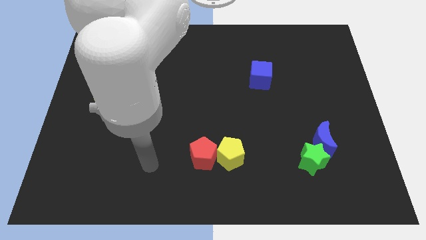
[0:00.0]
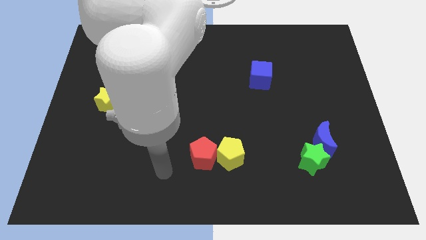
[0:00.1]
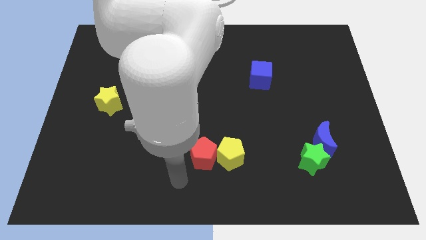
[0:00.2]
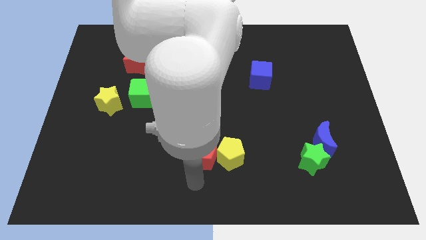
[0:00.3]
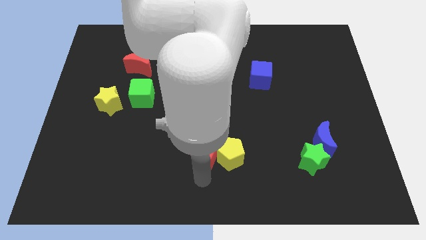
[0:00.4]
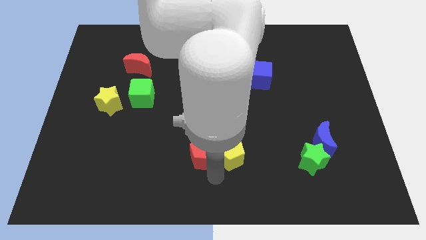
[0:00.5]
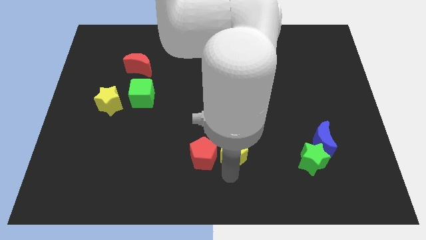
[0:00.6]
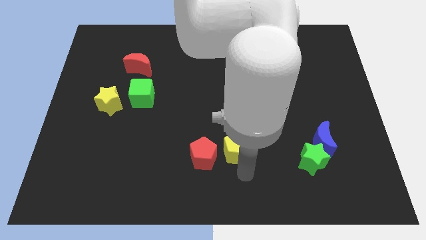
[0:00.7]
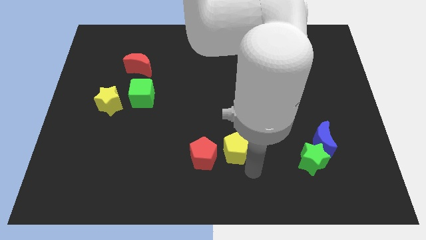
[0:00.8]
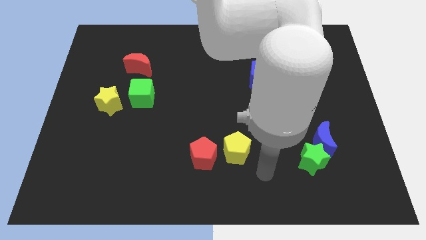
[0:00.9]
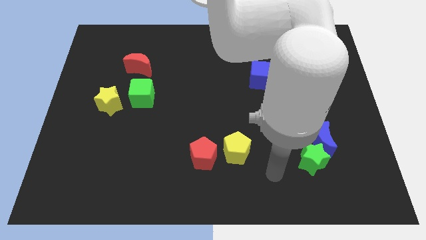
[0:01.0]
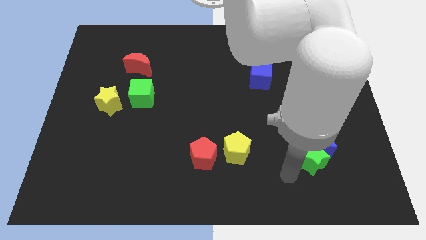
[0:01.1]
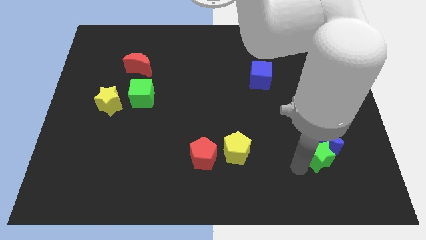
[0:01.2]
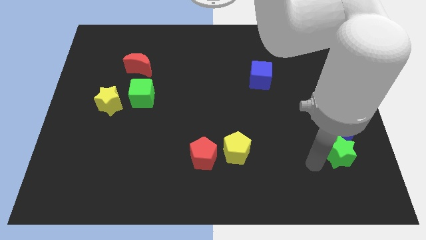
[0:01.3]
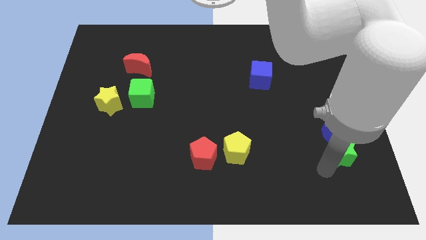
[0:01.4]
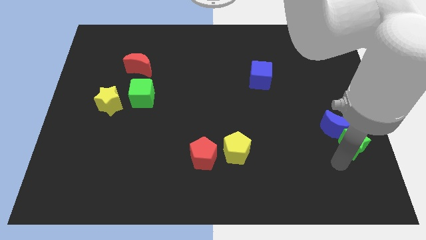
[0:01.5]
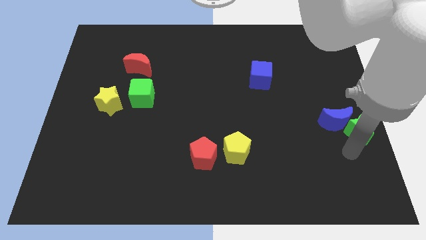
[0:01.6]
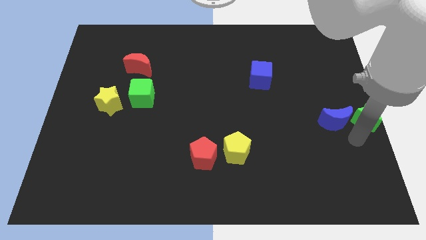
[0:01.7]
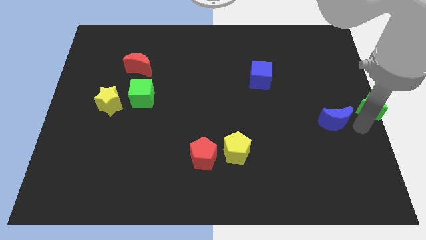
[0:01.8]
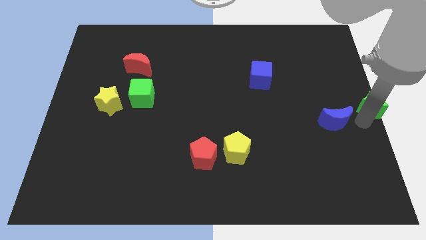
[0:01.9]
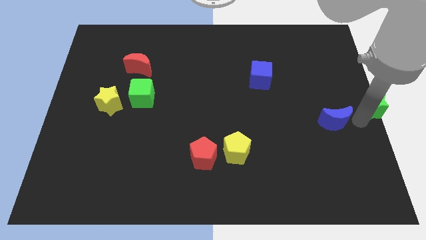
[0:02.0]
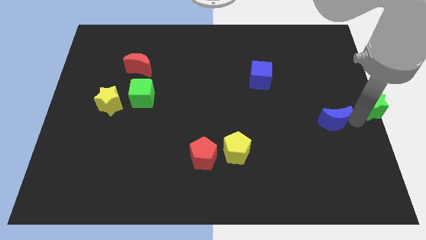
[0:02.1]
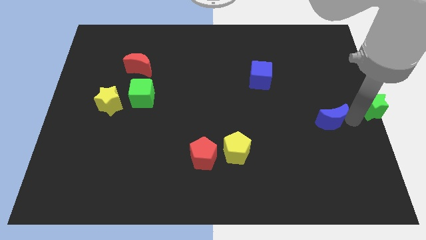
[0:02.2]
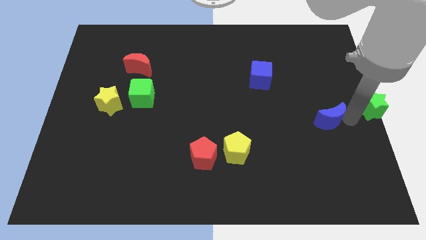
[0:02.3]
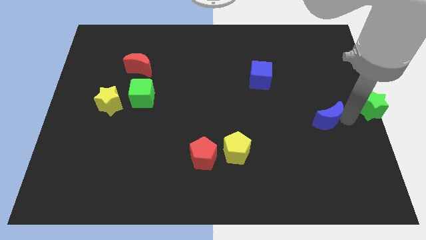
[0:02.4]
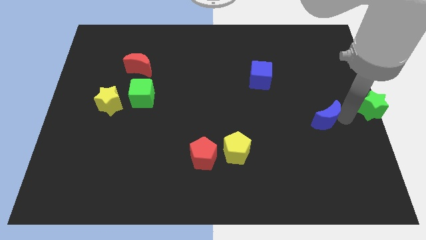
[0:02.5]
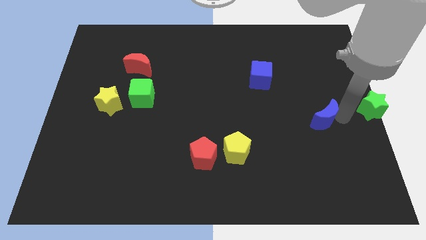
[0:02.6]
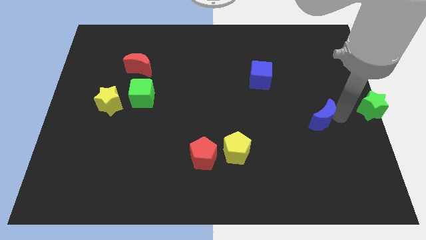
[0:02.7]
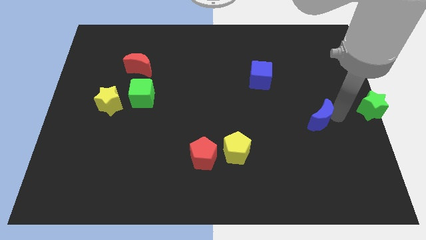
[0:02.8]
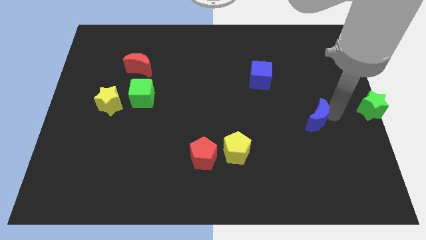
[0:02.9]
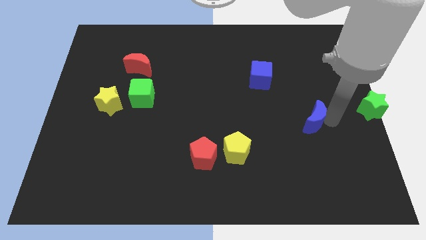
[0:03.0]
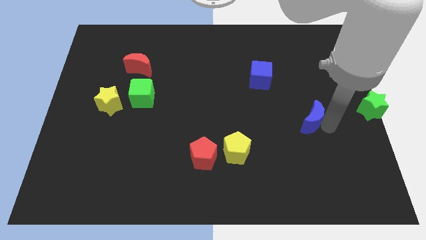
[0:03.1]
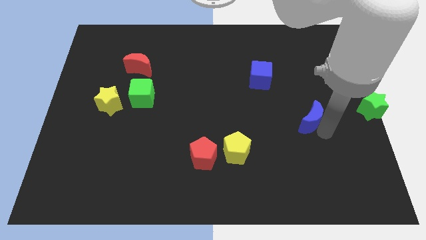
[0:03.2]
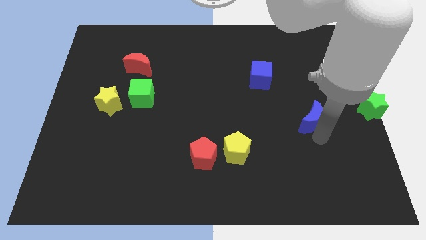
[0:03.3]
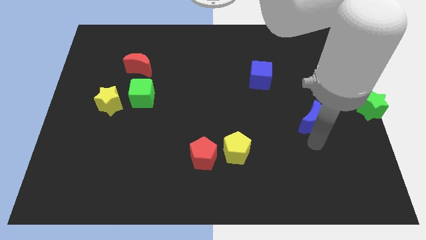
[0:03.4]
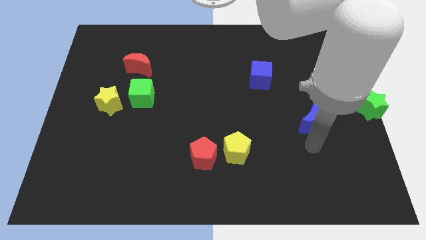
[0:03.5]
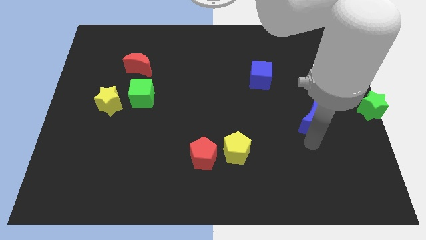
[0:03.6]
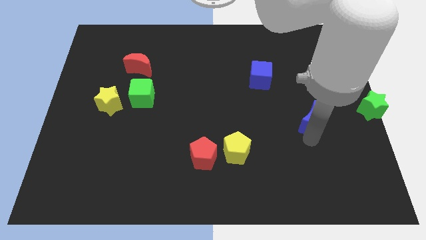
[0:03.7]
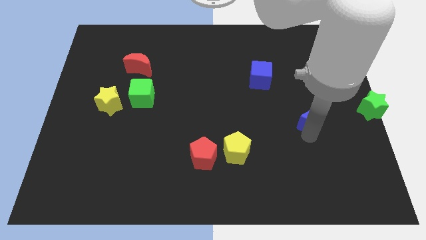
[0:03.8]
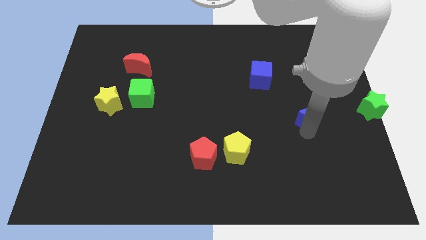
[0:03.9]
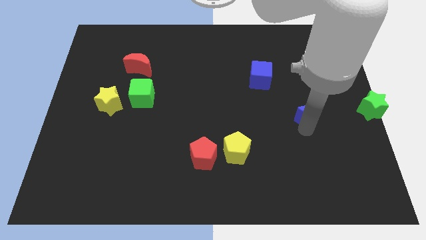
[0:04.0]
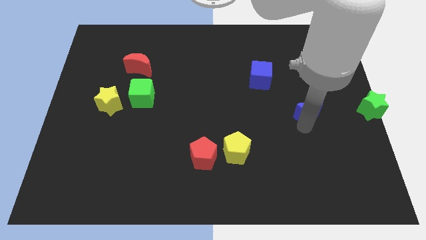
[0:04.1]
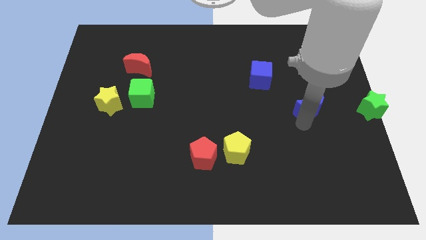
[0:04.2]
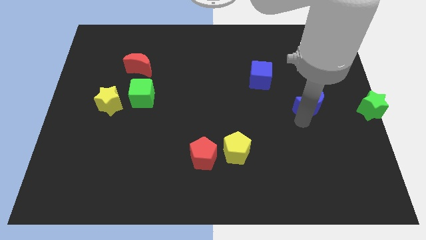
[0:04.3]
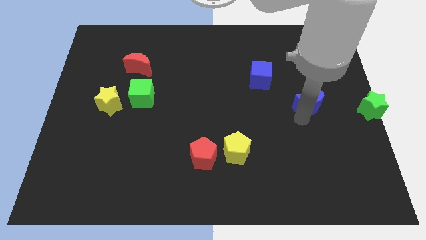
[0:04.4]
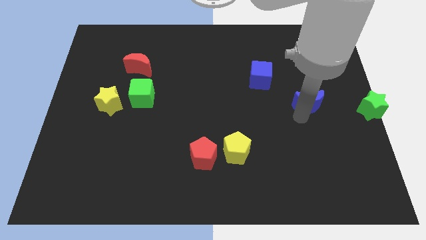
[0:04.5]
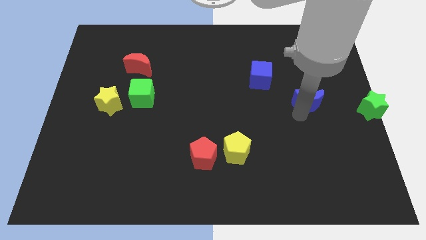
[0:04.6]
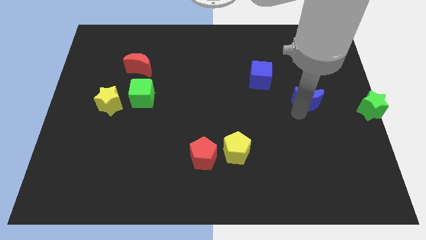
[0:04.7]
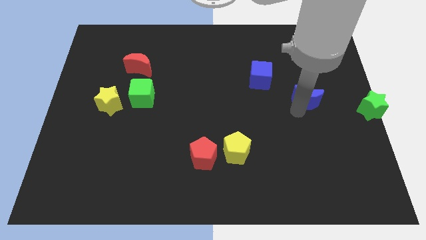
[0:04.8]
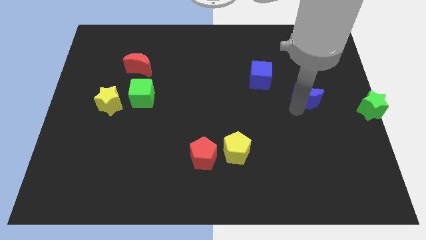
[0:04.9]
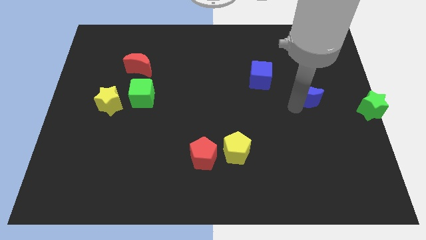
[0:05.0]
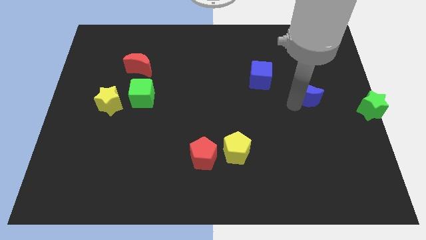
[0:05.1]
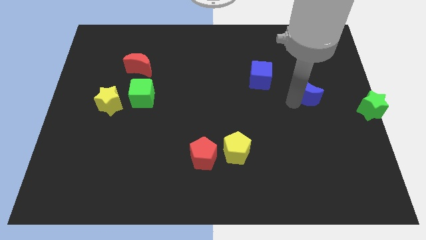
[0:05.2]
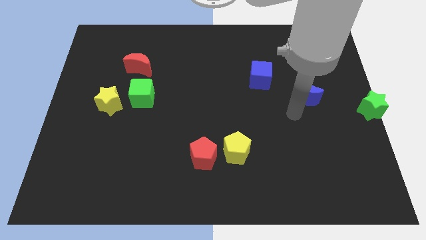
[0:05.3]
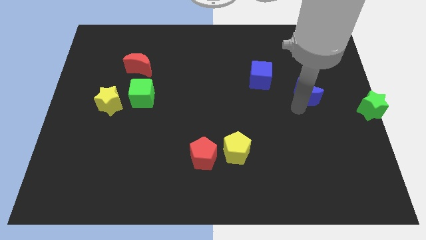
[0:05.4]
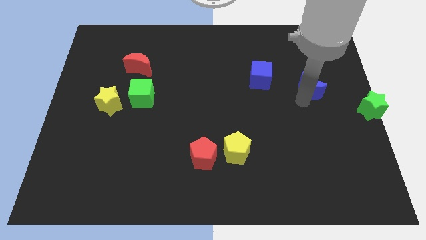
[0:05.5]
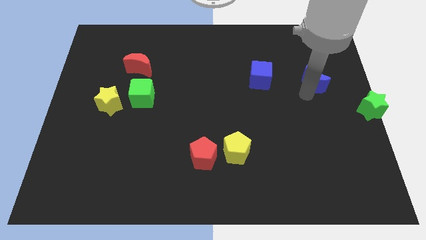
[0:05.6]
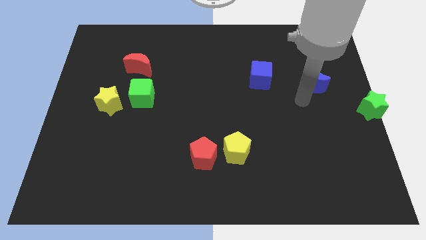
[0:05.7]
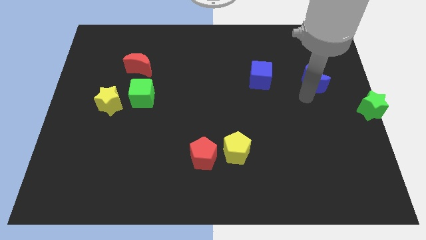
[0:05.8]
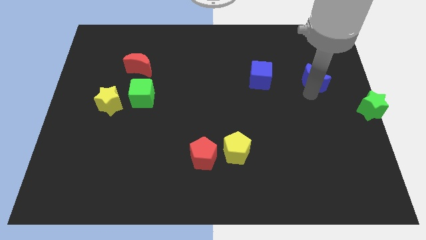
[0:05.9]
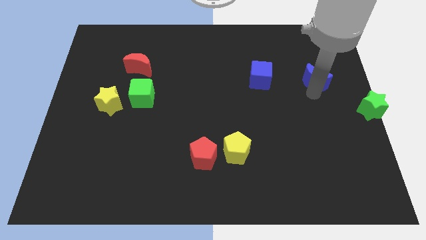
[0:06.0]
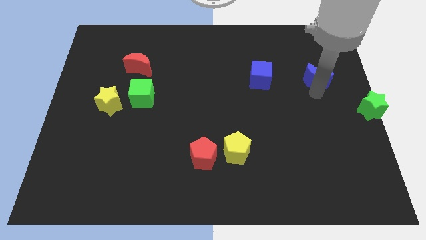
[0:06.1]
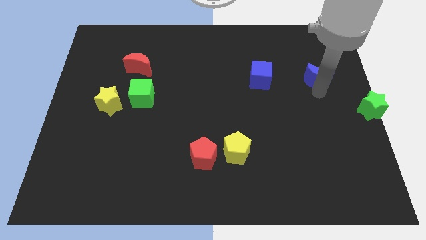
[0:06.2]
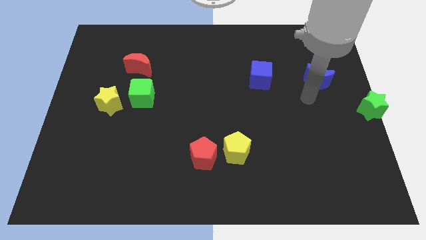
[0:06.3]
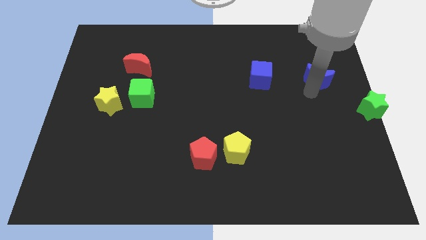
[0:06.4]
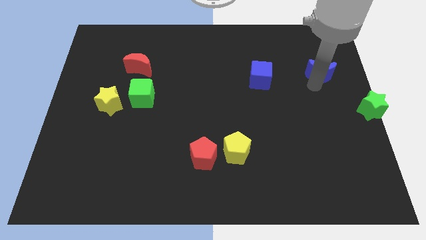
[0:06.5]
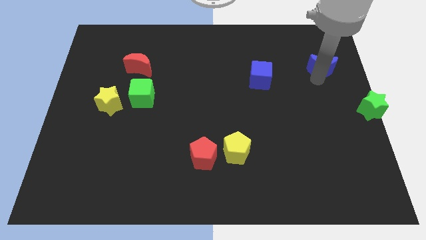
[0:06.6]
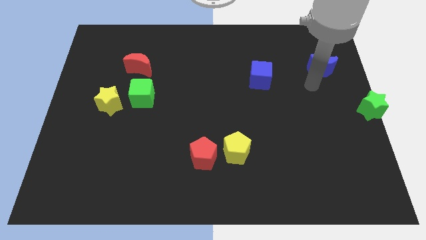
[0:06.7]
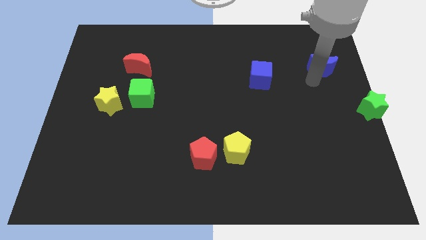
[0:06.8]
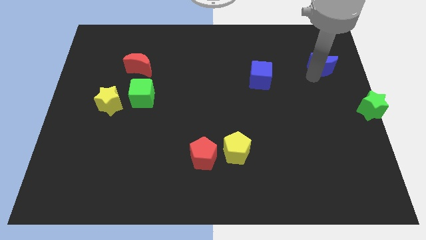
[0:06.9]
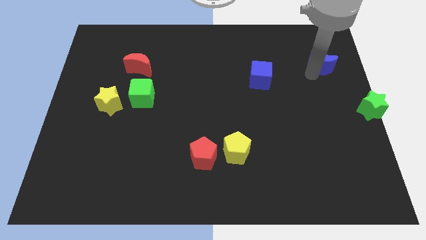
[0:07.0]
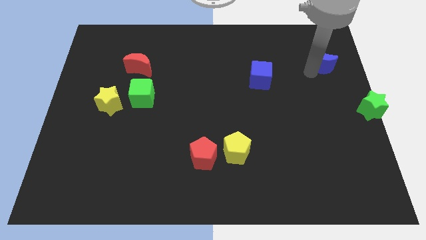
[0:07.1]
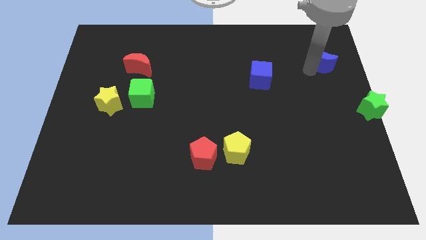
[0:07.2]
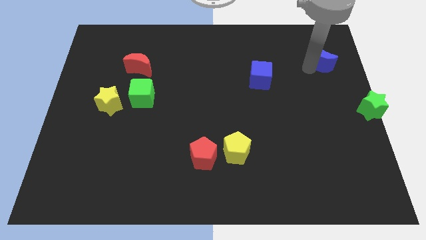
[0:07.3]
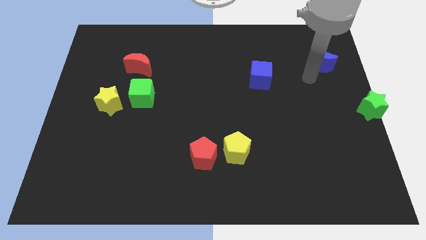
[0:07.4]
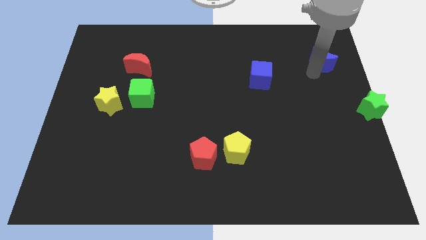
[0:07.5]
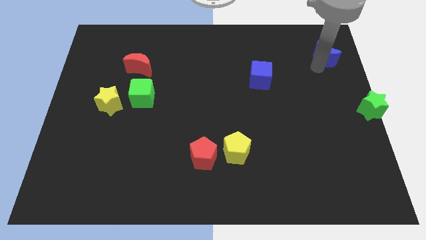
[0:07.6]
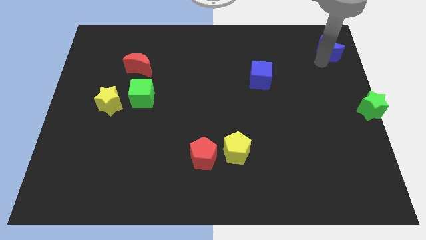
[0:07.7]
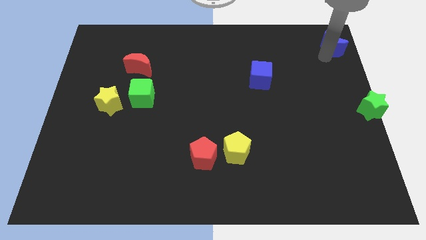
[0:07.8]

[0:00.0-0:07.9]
put the blue moon to the upper right corner
